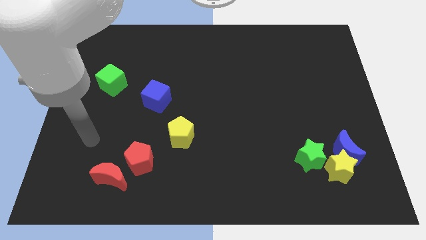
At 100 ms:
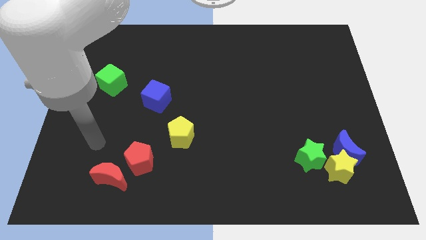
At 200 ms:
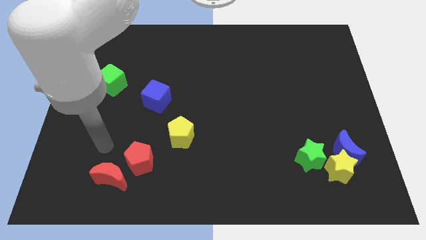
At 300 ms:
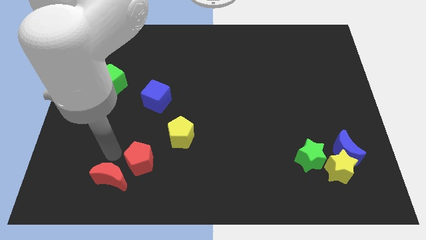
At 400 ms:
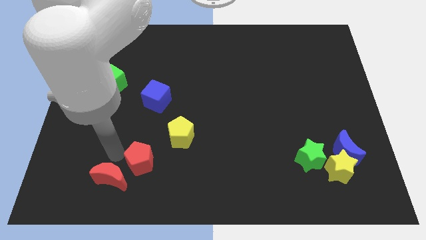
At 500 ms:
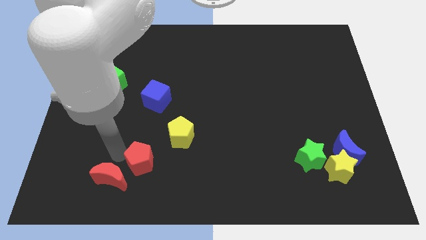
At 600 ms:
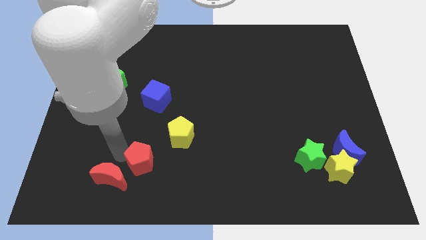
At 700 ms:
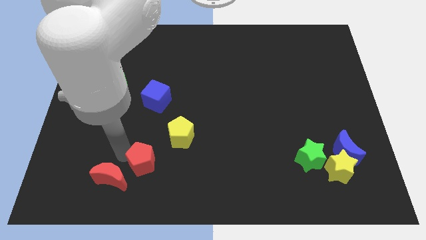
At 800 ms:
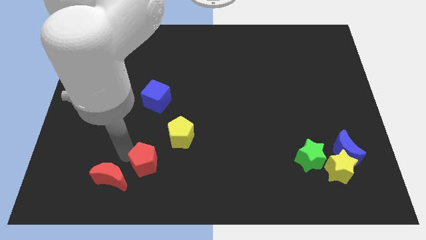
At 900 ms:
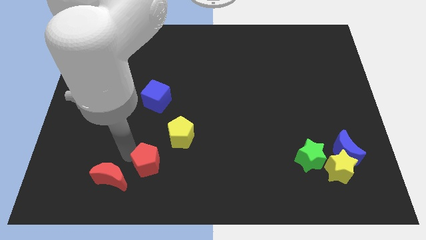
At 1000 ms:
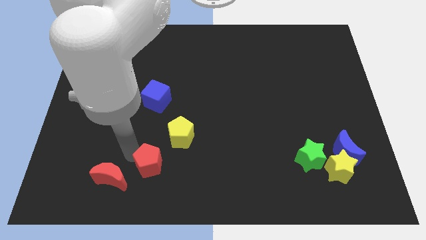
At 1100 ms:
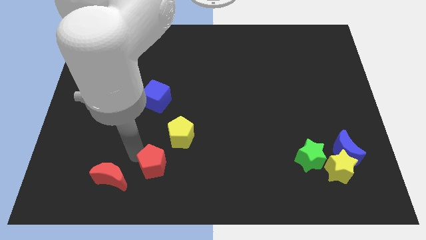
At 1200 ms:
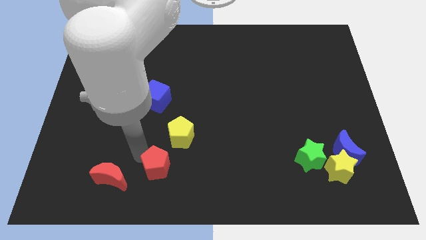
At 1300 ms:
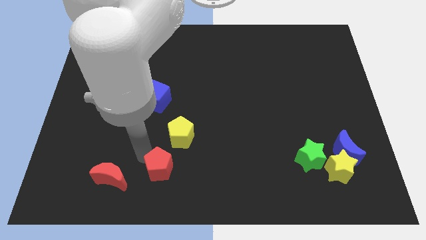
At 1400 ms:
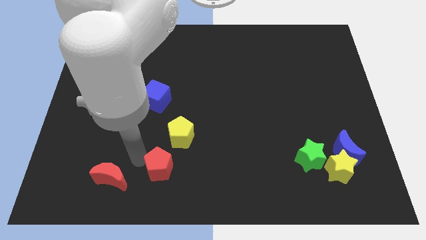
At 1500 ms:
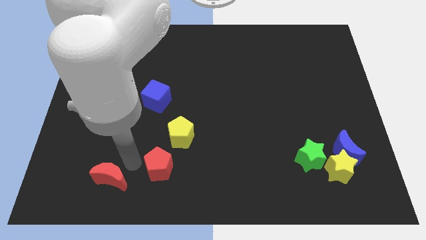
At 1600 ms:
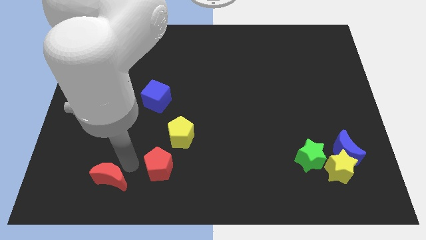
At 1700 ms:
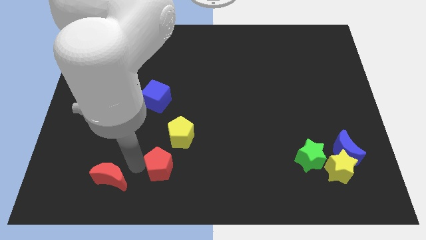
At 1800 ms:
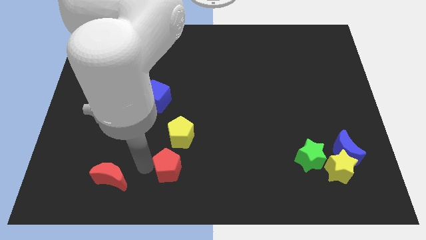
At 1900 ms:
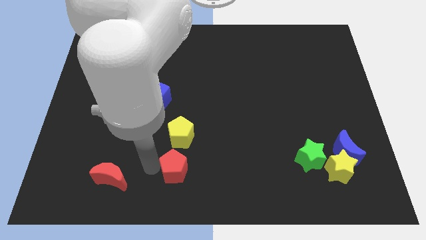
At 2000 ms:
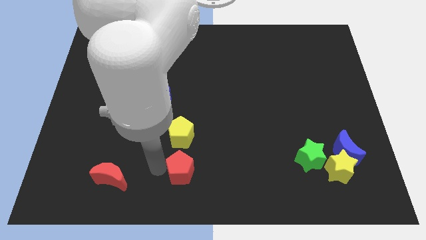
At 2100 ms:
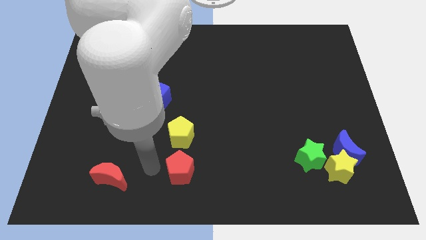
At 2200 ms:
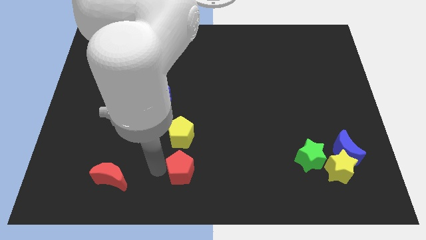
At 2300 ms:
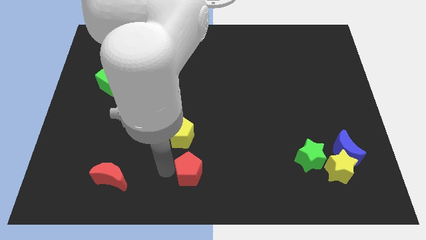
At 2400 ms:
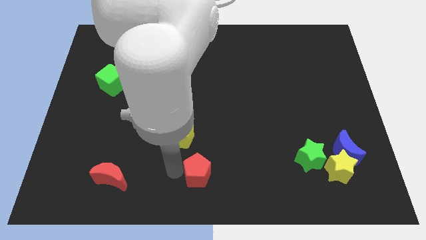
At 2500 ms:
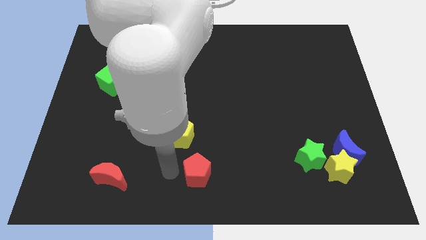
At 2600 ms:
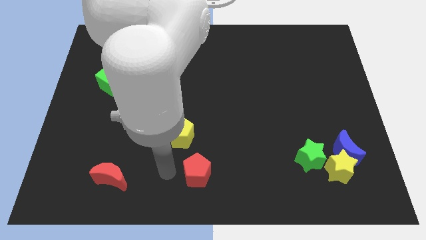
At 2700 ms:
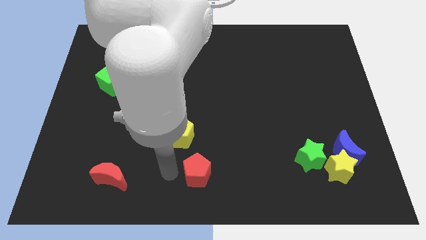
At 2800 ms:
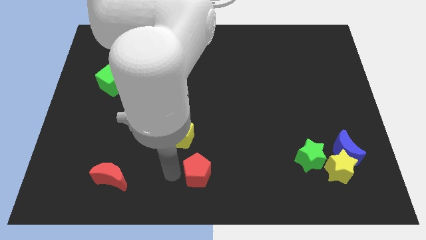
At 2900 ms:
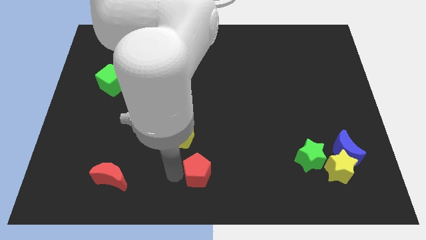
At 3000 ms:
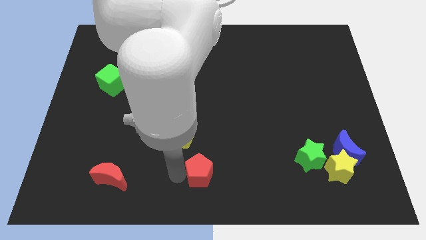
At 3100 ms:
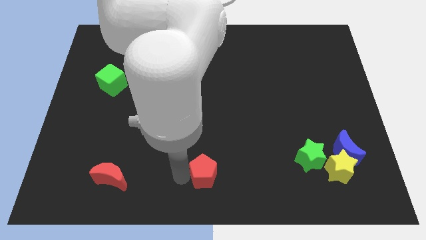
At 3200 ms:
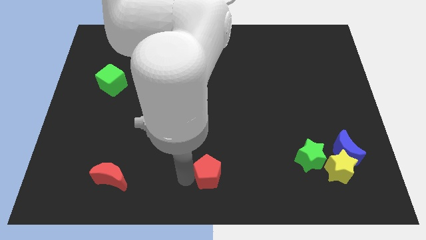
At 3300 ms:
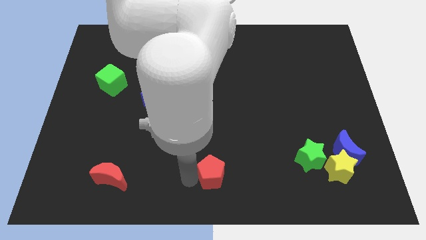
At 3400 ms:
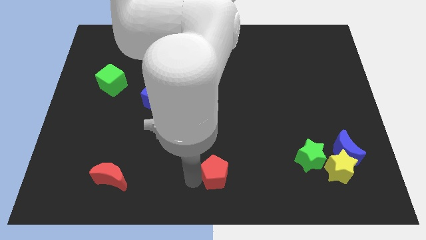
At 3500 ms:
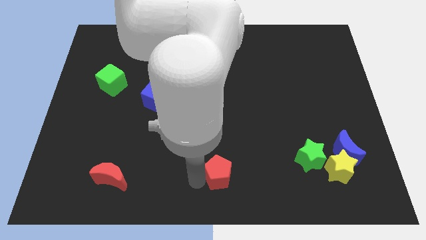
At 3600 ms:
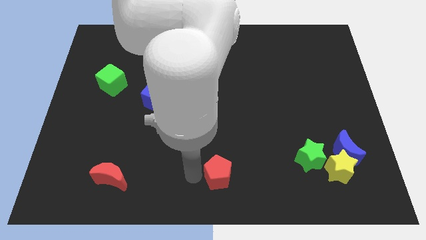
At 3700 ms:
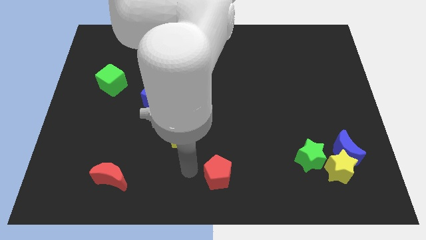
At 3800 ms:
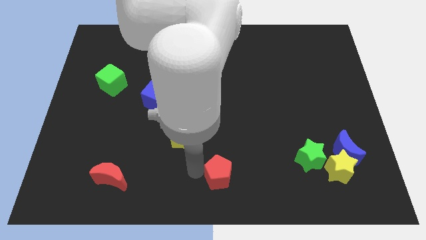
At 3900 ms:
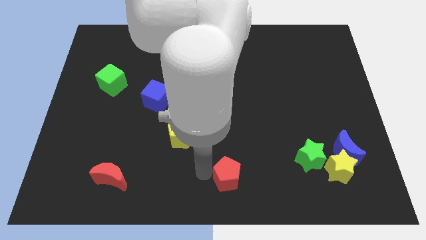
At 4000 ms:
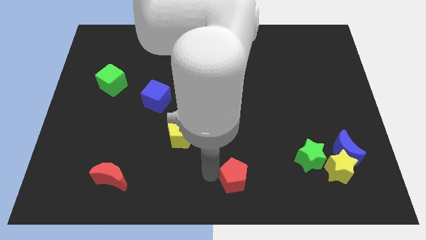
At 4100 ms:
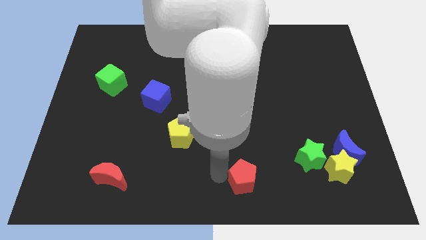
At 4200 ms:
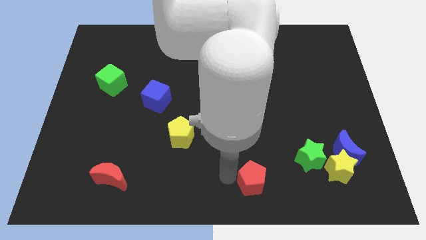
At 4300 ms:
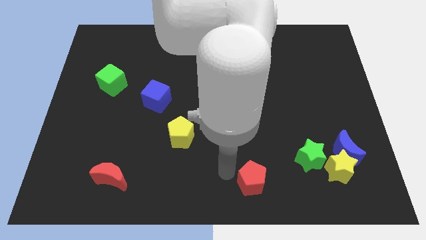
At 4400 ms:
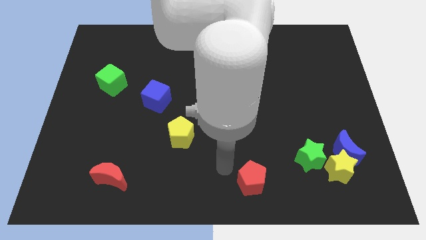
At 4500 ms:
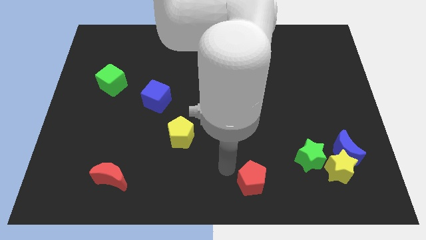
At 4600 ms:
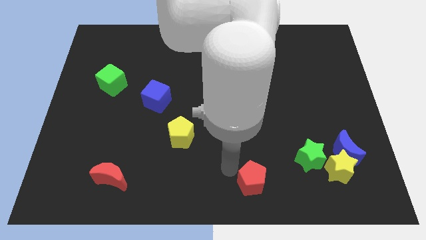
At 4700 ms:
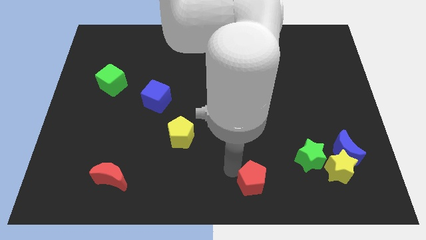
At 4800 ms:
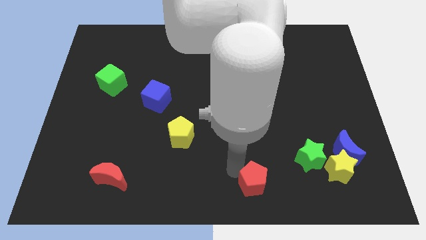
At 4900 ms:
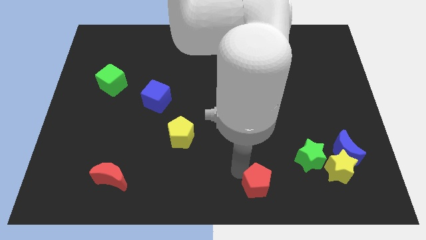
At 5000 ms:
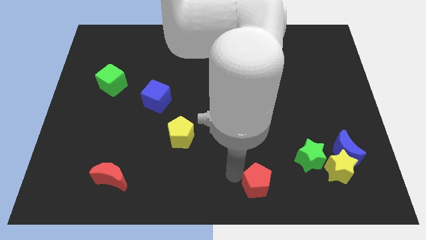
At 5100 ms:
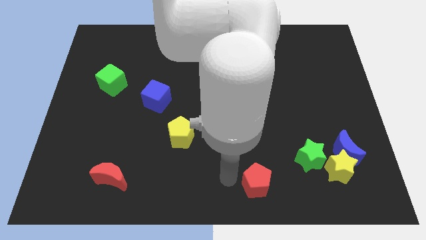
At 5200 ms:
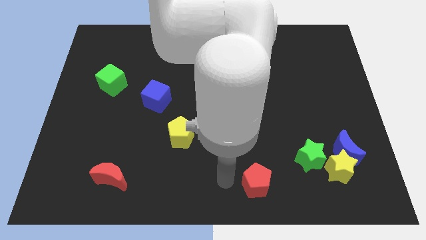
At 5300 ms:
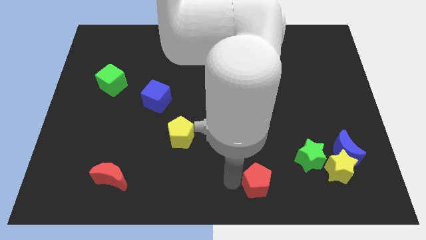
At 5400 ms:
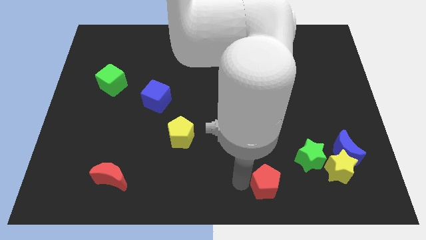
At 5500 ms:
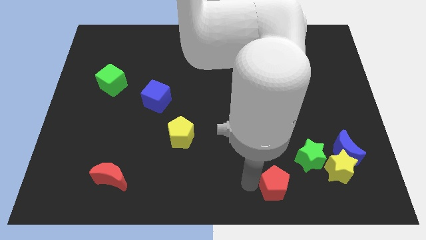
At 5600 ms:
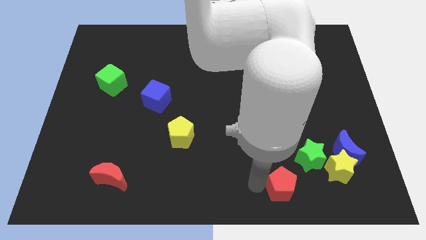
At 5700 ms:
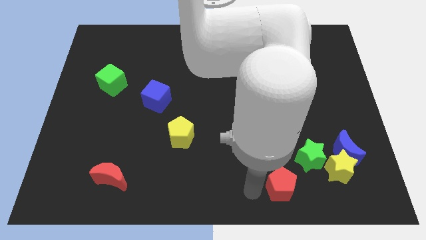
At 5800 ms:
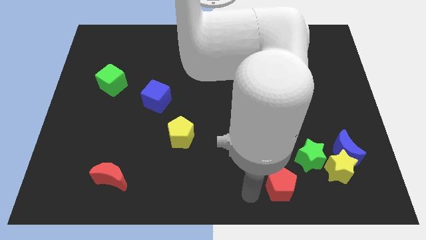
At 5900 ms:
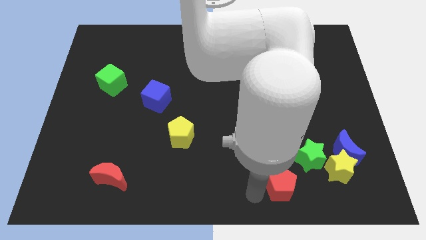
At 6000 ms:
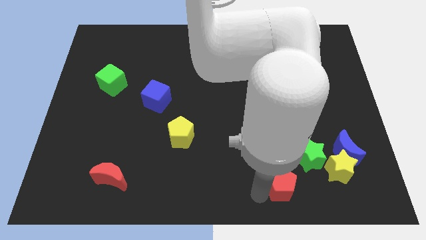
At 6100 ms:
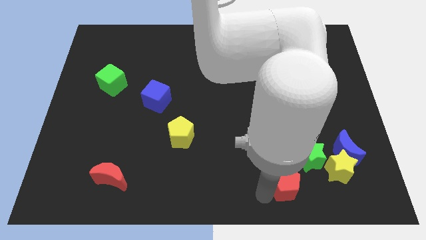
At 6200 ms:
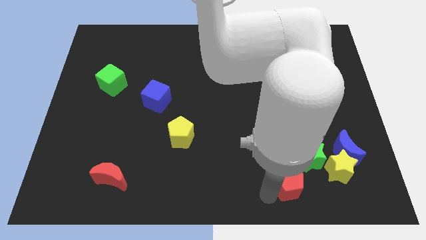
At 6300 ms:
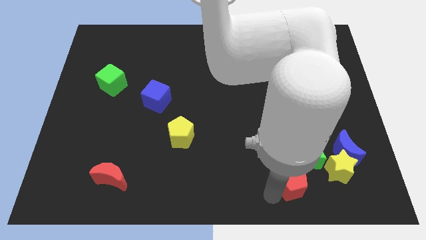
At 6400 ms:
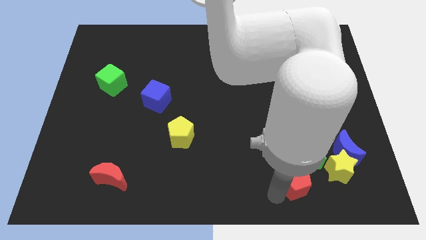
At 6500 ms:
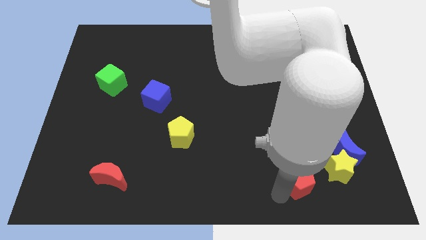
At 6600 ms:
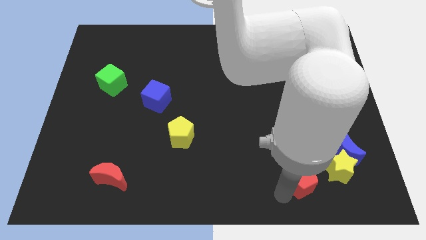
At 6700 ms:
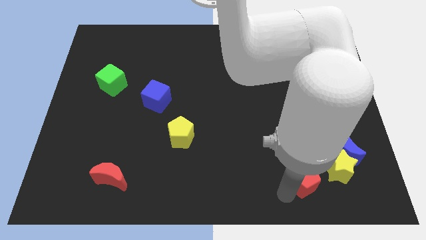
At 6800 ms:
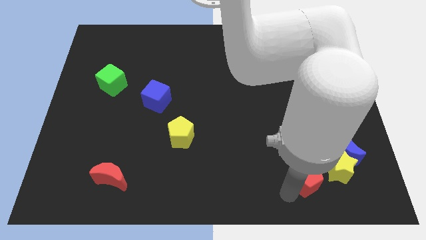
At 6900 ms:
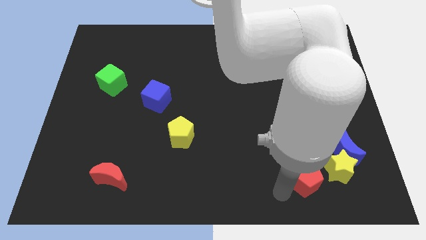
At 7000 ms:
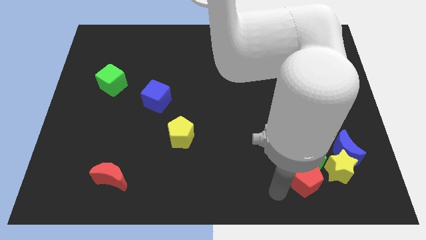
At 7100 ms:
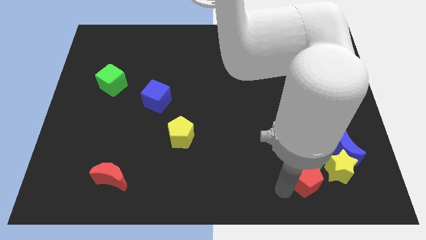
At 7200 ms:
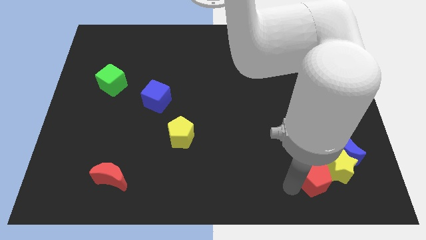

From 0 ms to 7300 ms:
move the red pentagon towards the yellow star

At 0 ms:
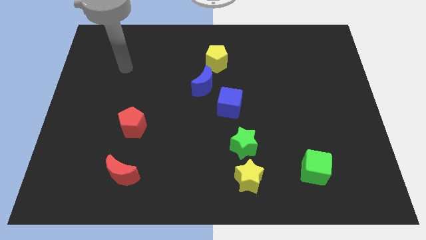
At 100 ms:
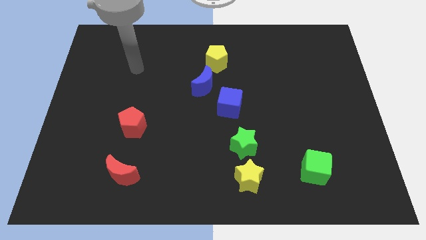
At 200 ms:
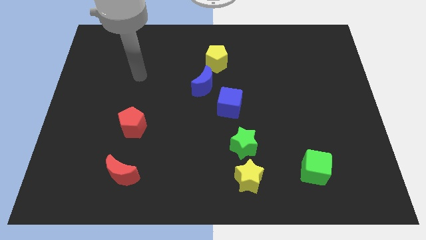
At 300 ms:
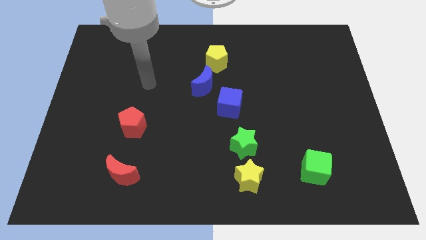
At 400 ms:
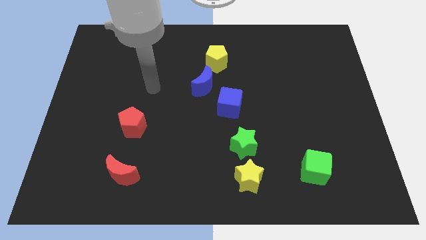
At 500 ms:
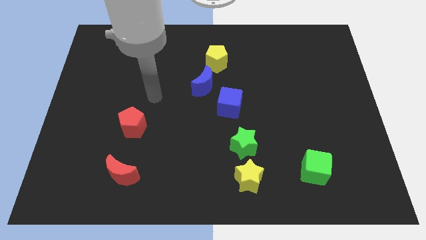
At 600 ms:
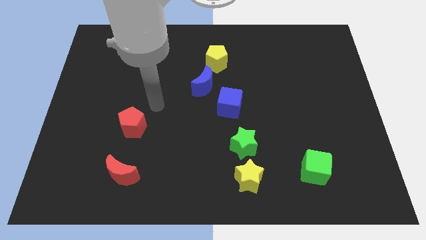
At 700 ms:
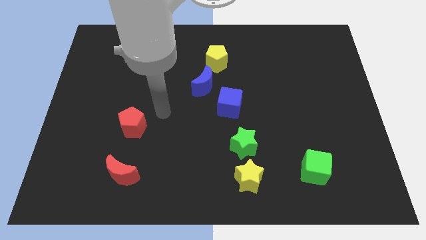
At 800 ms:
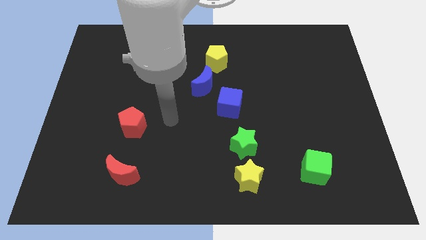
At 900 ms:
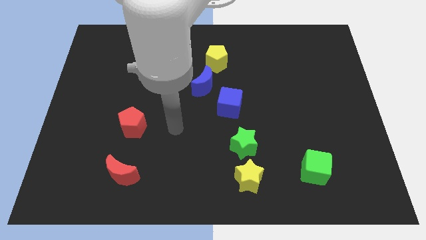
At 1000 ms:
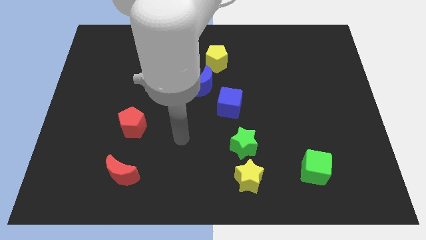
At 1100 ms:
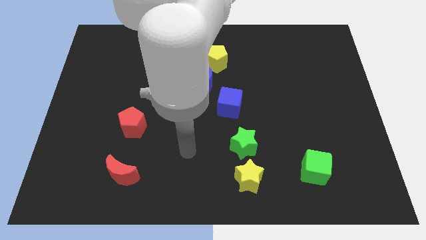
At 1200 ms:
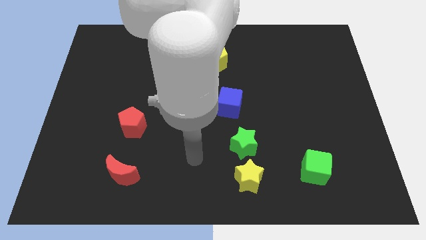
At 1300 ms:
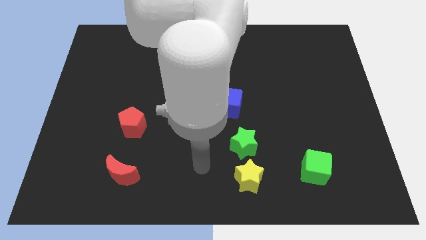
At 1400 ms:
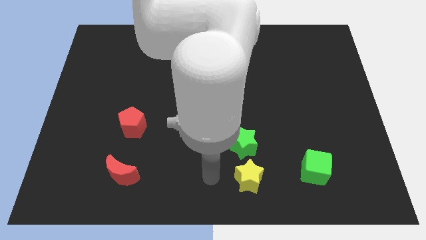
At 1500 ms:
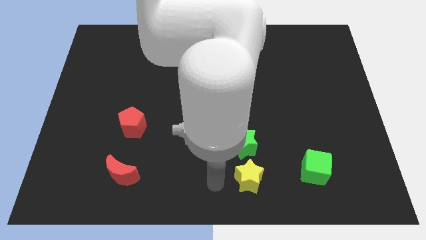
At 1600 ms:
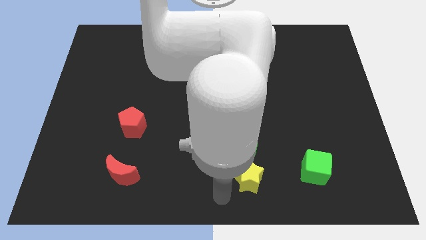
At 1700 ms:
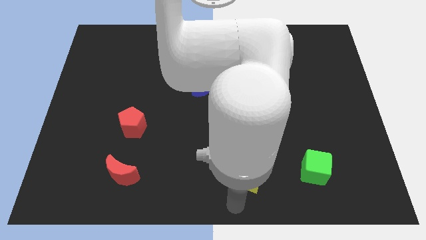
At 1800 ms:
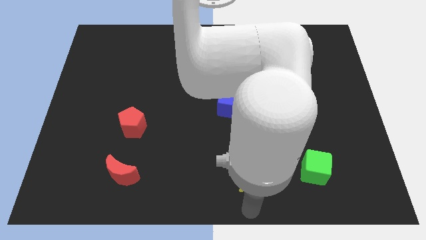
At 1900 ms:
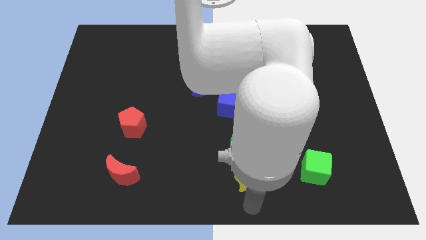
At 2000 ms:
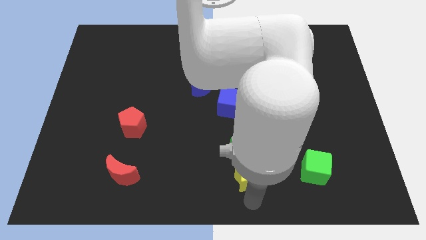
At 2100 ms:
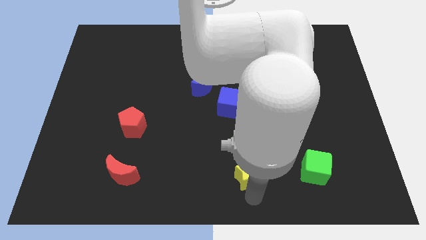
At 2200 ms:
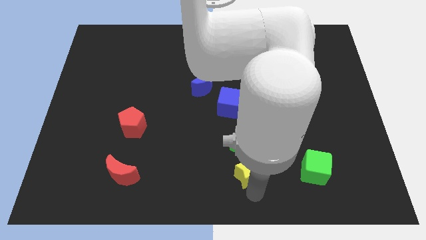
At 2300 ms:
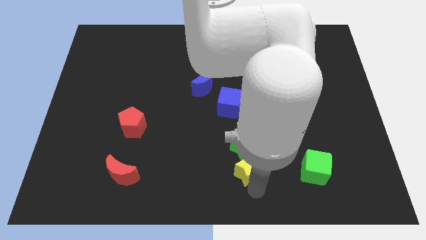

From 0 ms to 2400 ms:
push the yellow star close to the green star
